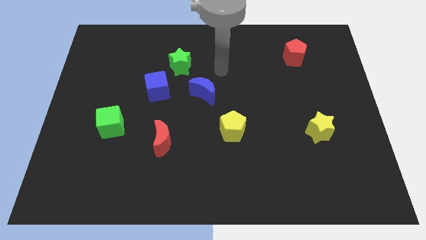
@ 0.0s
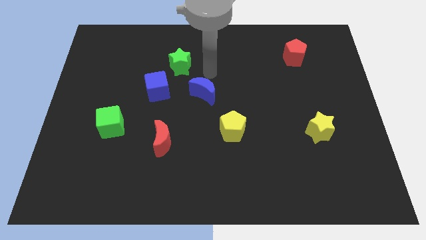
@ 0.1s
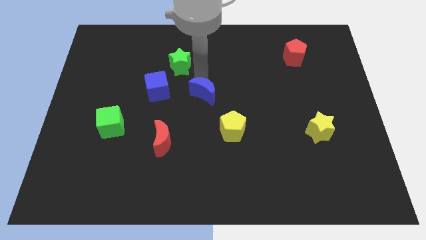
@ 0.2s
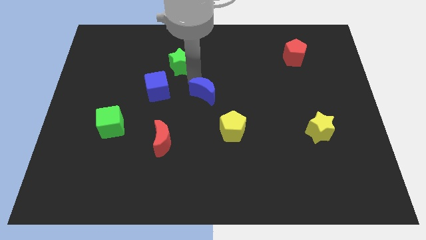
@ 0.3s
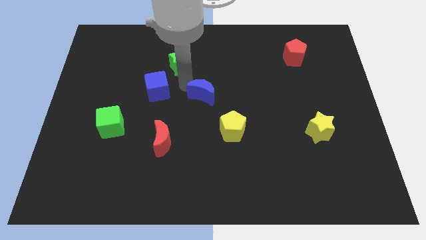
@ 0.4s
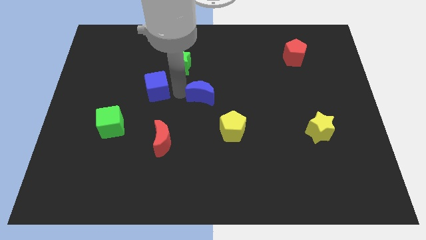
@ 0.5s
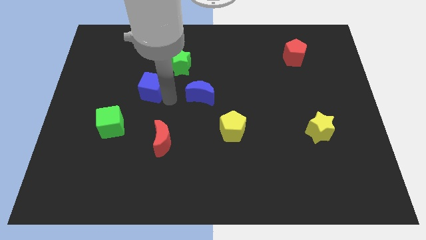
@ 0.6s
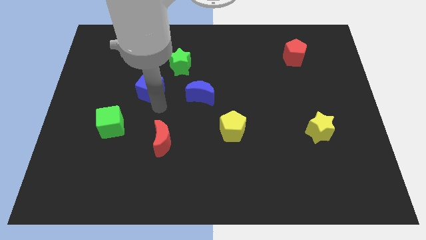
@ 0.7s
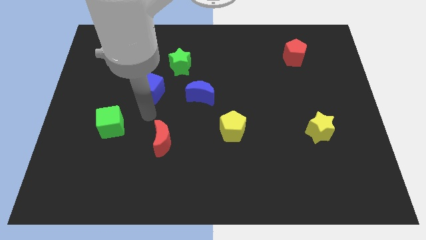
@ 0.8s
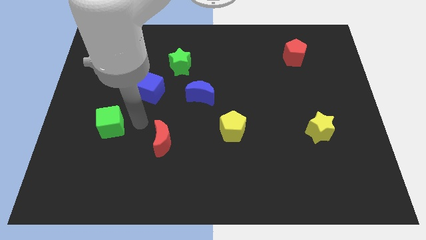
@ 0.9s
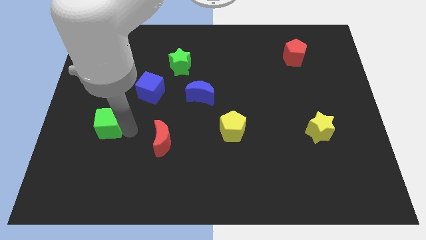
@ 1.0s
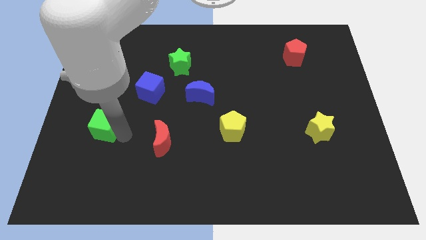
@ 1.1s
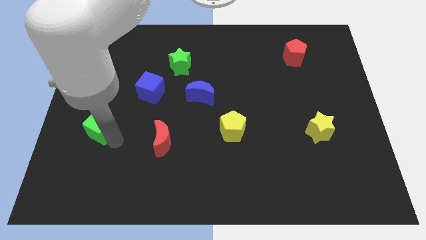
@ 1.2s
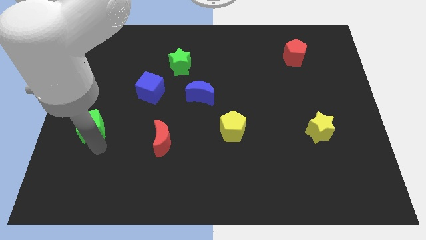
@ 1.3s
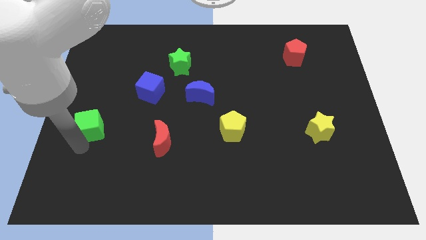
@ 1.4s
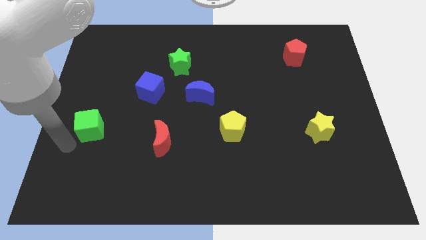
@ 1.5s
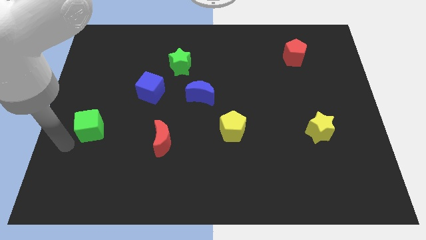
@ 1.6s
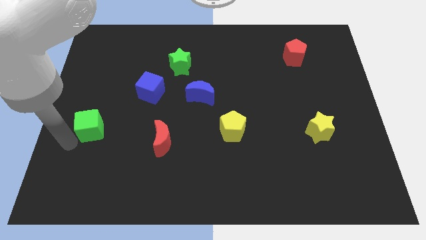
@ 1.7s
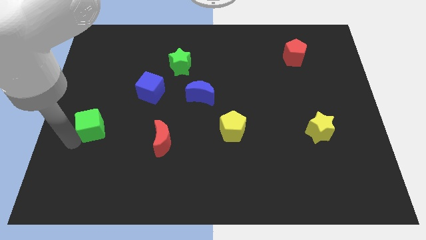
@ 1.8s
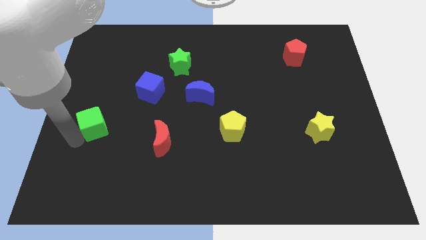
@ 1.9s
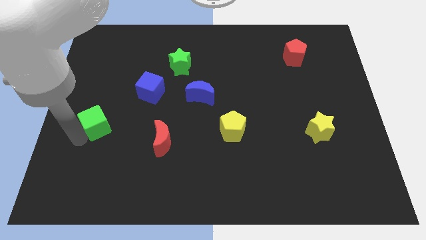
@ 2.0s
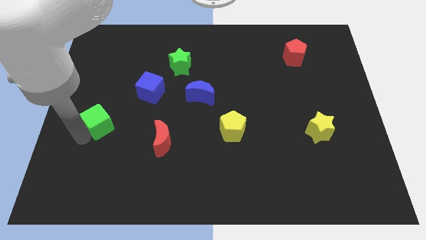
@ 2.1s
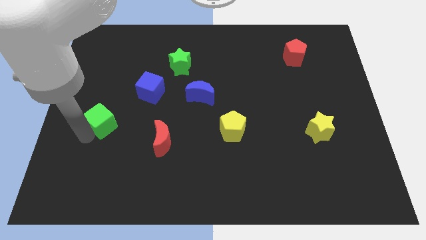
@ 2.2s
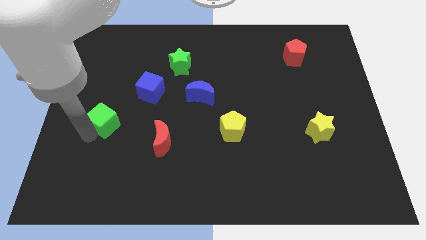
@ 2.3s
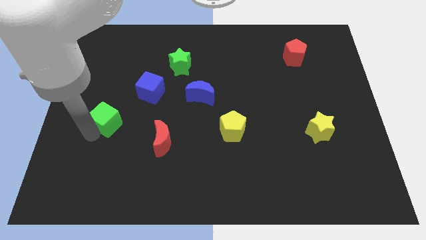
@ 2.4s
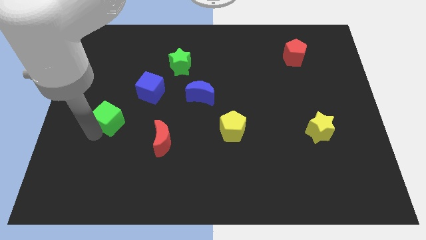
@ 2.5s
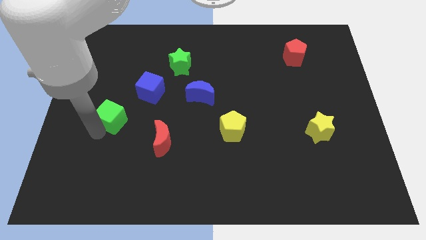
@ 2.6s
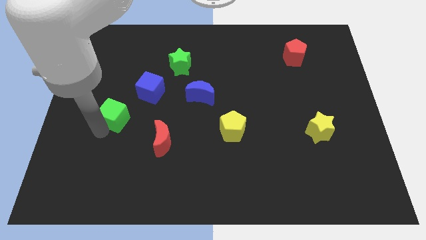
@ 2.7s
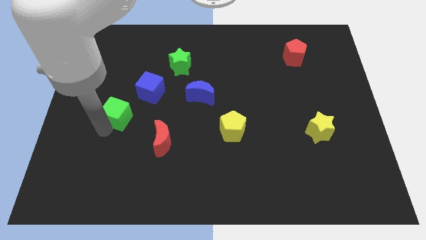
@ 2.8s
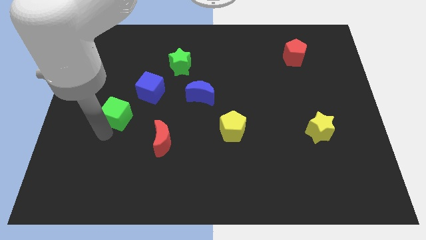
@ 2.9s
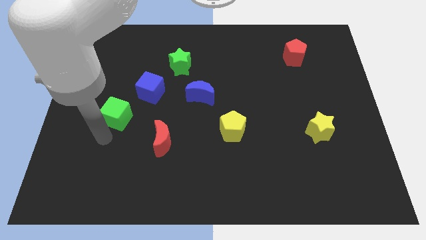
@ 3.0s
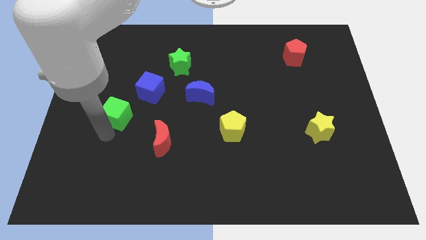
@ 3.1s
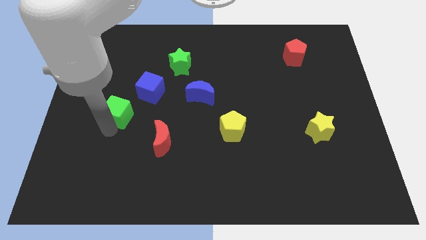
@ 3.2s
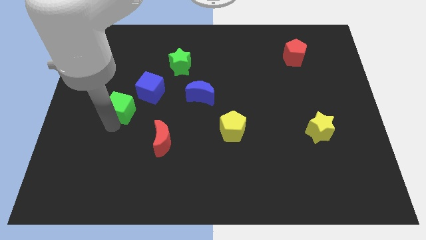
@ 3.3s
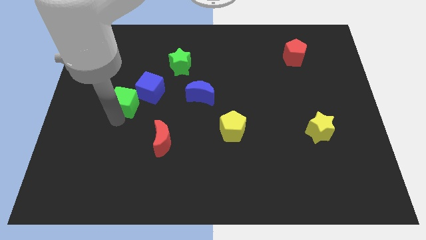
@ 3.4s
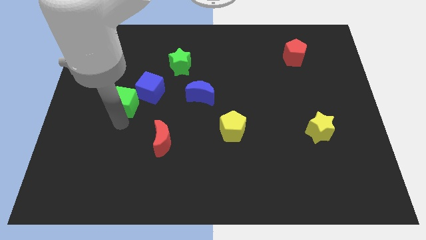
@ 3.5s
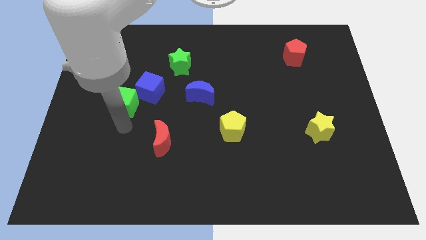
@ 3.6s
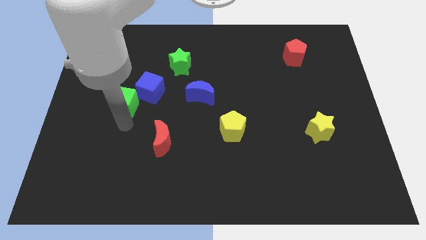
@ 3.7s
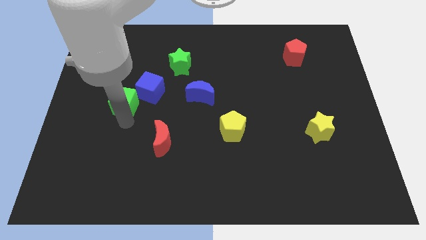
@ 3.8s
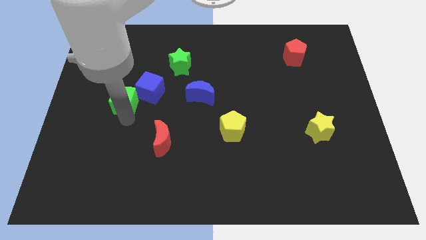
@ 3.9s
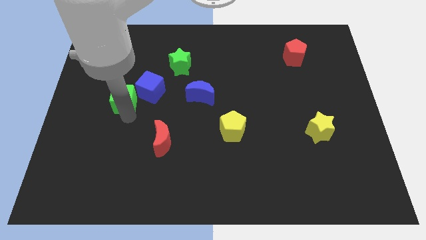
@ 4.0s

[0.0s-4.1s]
slightly move the green cube up

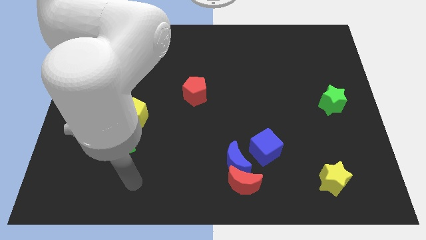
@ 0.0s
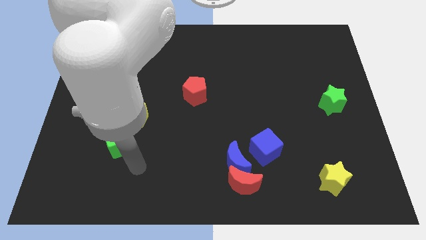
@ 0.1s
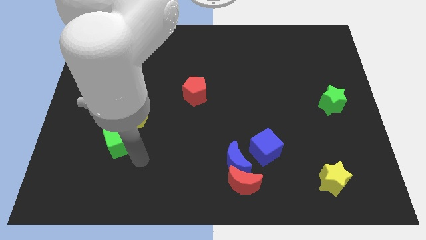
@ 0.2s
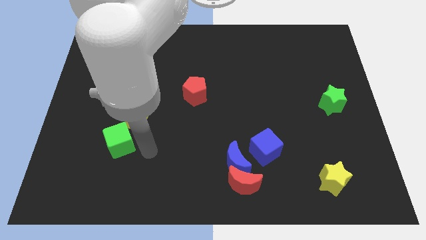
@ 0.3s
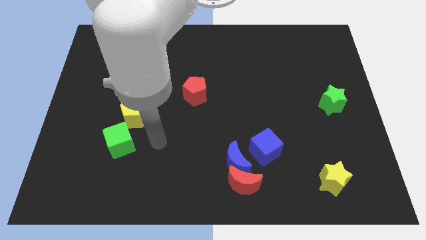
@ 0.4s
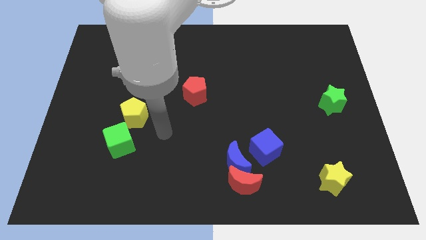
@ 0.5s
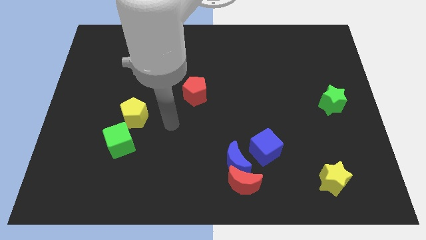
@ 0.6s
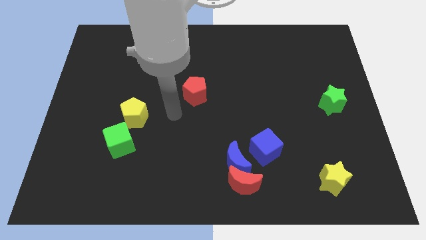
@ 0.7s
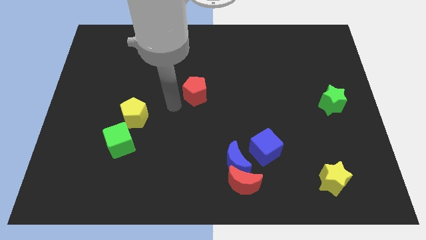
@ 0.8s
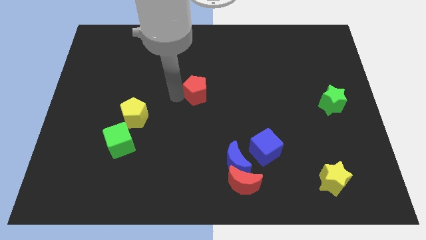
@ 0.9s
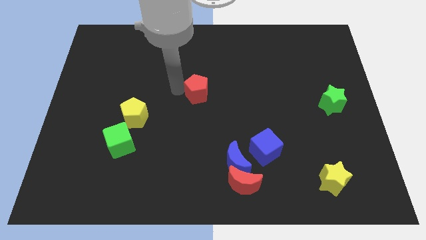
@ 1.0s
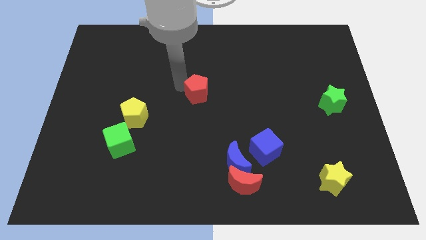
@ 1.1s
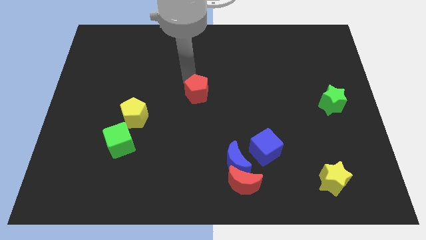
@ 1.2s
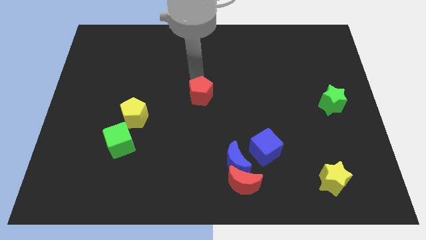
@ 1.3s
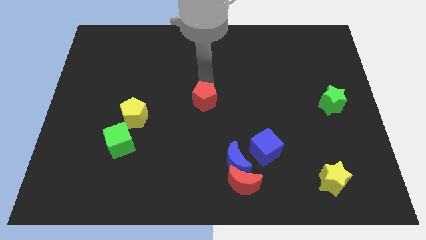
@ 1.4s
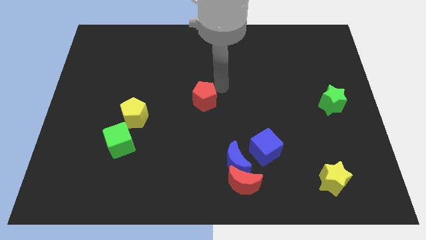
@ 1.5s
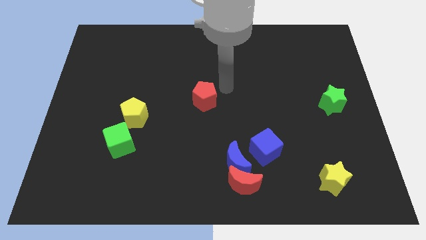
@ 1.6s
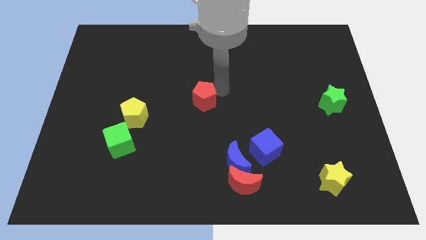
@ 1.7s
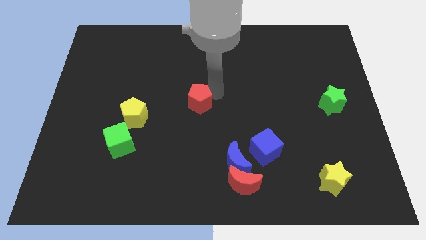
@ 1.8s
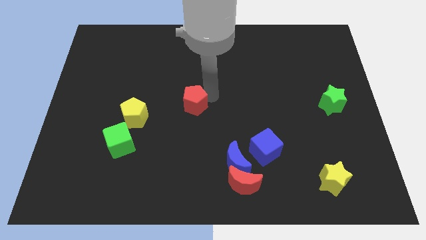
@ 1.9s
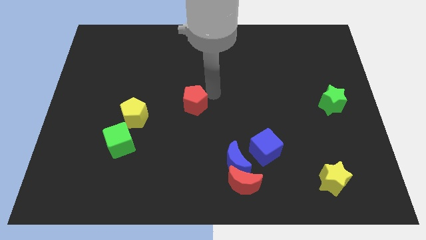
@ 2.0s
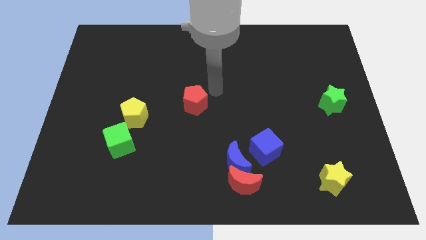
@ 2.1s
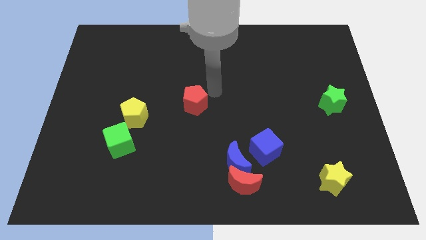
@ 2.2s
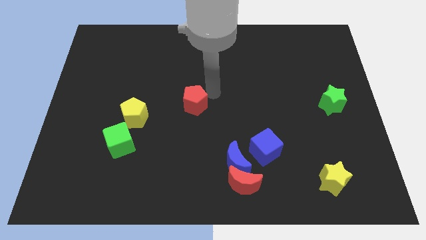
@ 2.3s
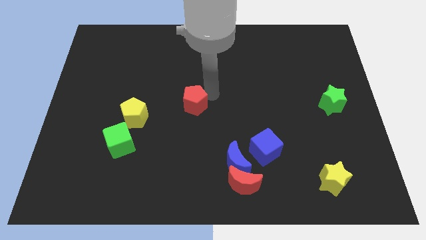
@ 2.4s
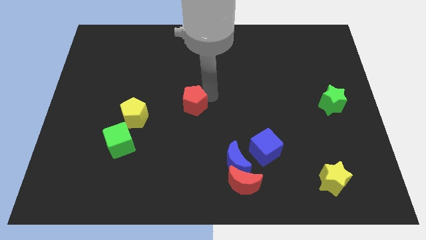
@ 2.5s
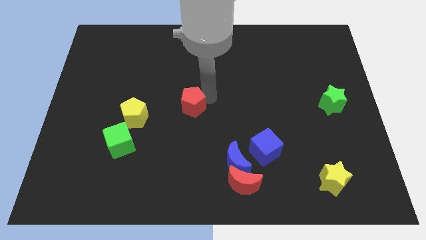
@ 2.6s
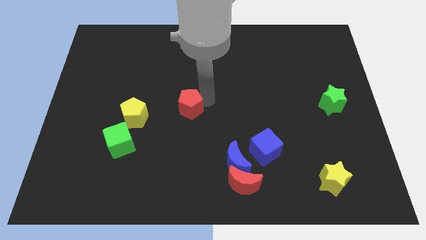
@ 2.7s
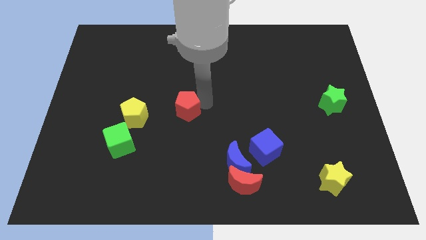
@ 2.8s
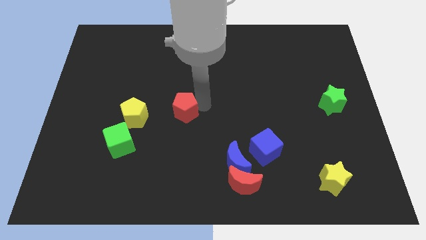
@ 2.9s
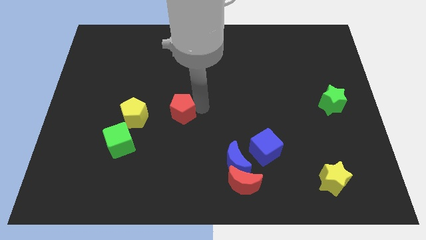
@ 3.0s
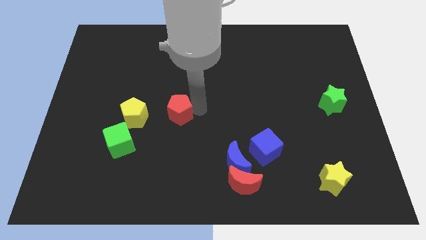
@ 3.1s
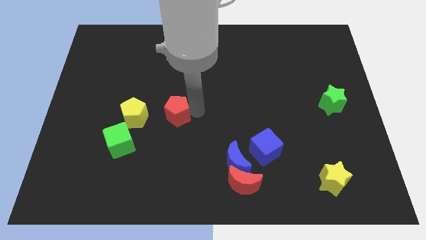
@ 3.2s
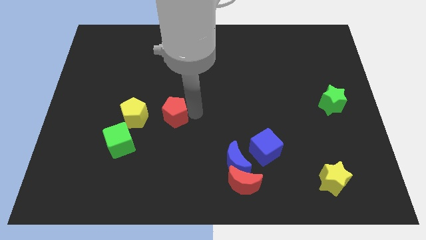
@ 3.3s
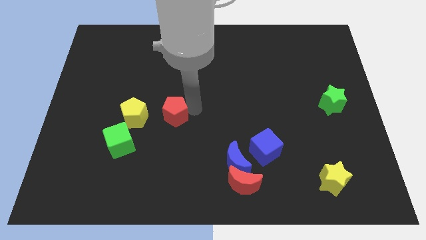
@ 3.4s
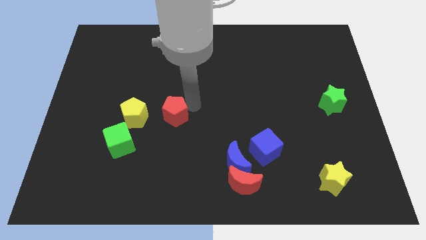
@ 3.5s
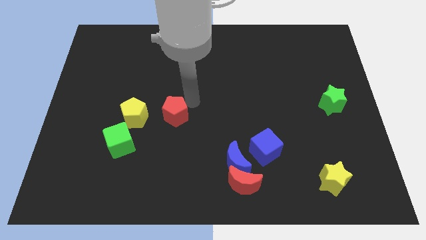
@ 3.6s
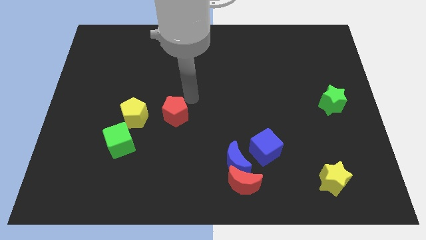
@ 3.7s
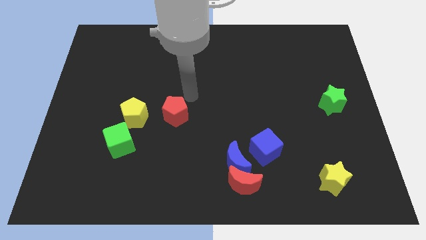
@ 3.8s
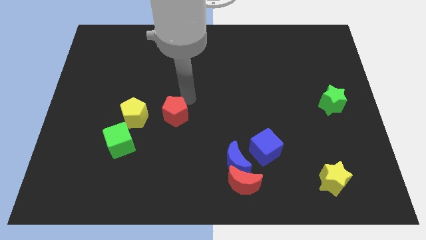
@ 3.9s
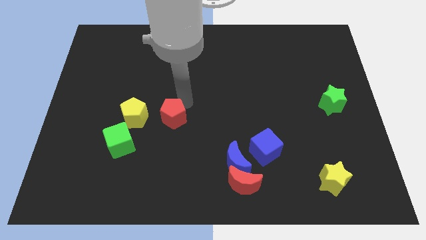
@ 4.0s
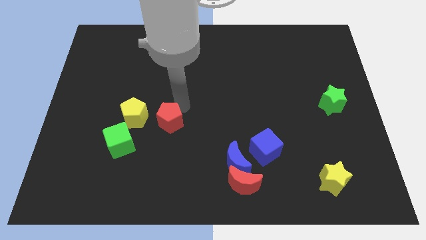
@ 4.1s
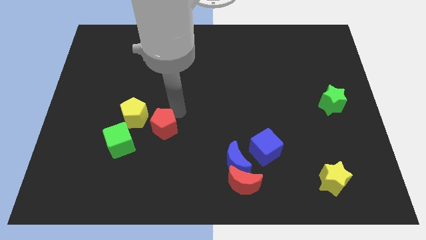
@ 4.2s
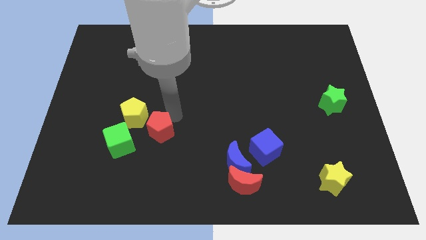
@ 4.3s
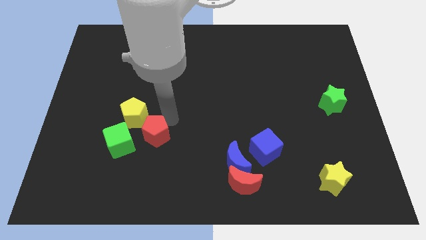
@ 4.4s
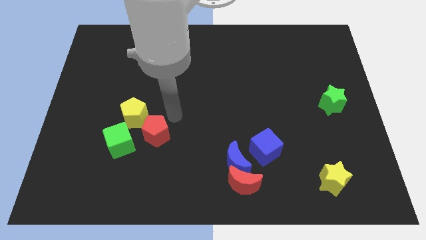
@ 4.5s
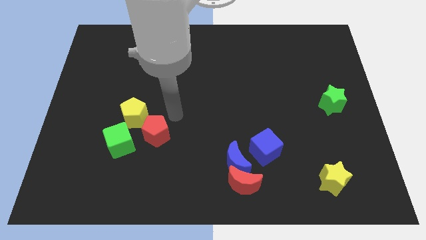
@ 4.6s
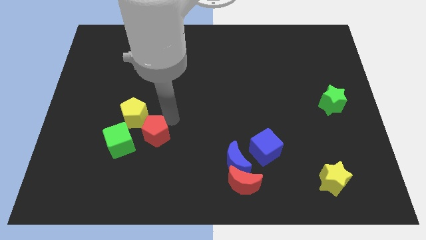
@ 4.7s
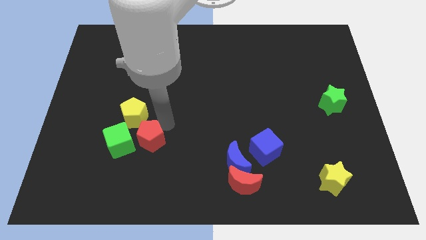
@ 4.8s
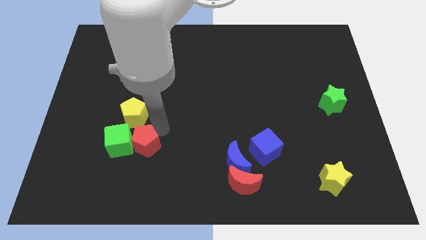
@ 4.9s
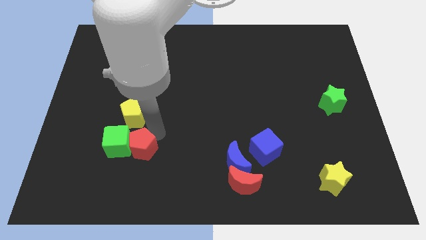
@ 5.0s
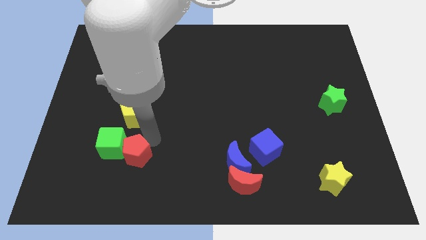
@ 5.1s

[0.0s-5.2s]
slide the red pentagon downwards and left
